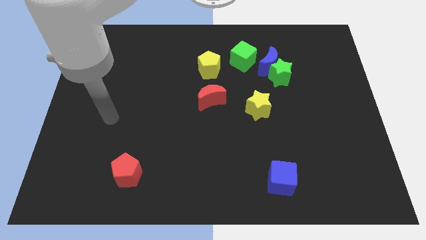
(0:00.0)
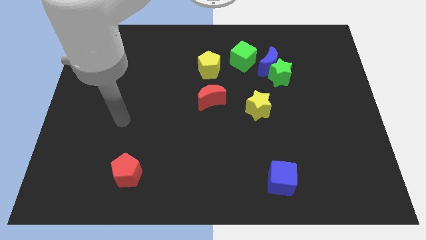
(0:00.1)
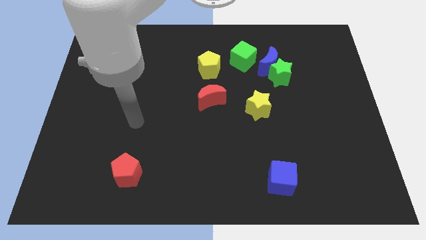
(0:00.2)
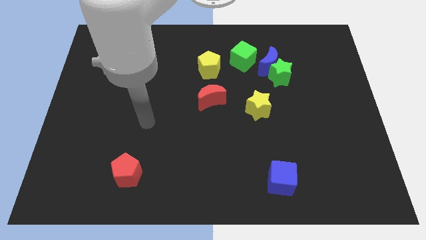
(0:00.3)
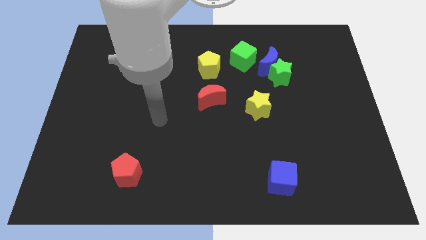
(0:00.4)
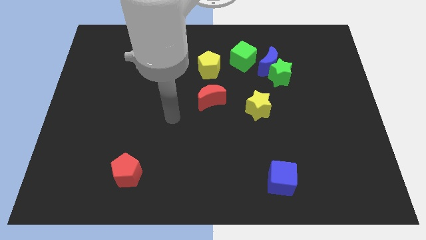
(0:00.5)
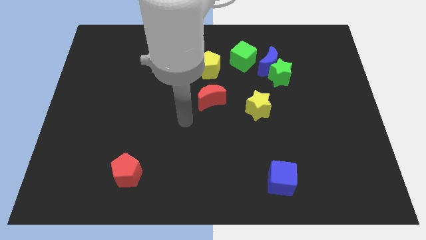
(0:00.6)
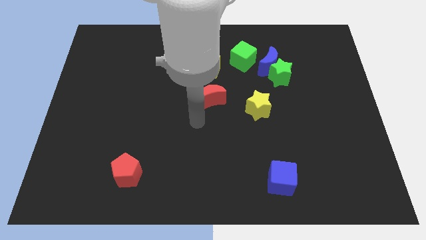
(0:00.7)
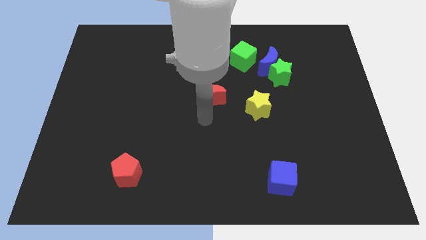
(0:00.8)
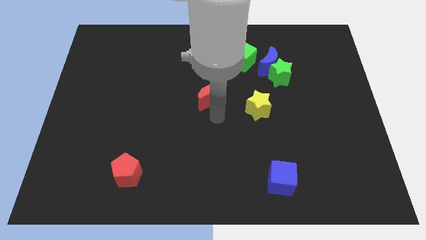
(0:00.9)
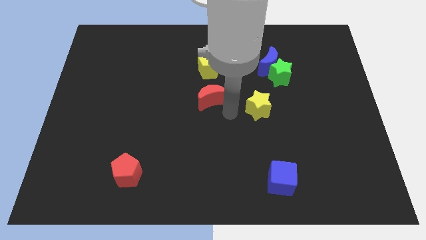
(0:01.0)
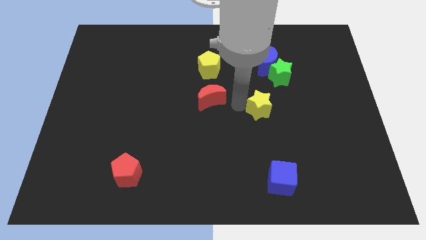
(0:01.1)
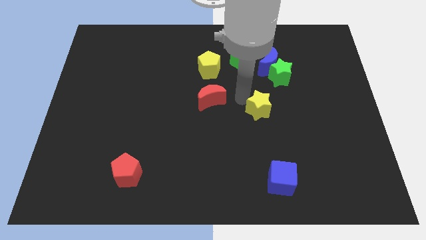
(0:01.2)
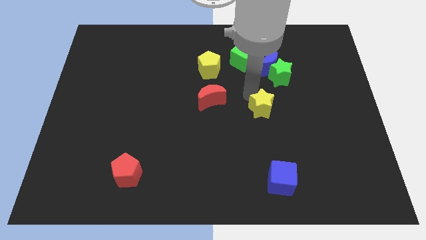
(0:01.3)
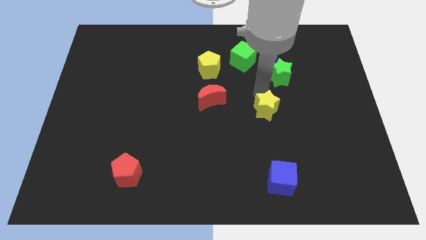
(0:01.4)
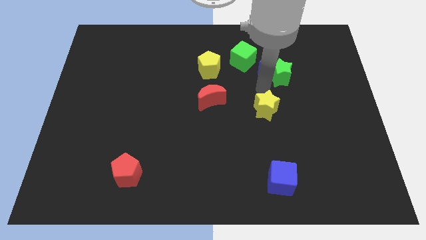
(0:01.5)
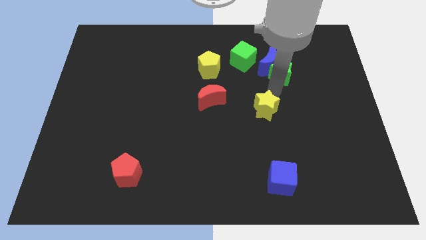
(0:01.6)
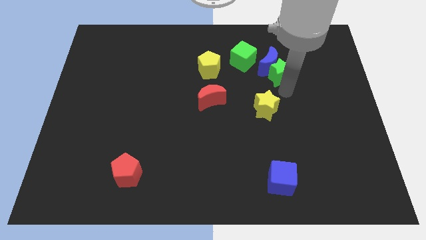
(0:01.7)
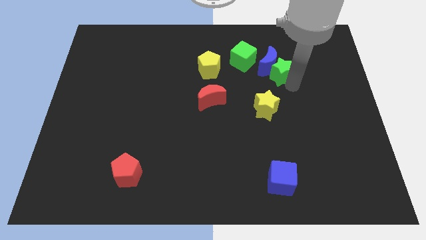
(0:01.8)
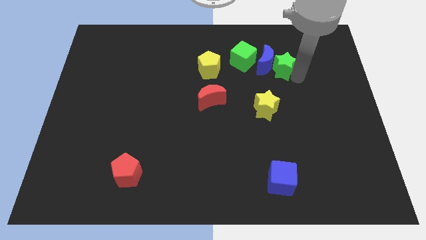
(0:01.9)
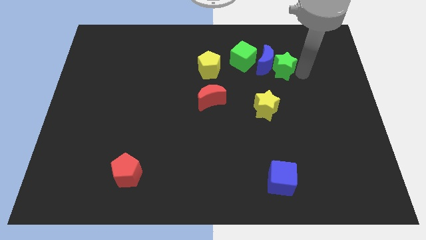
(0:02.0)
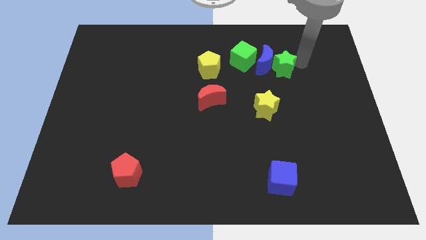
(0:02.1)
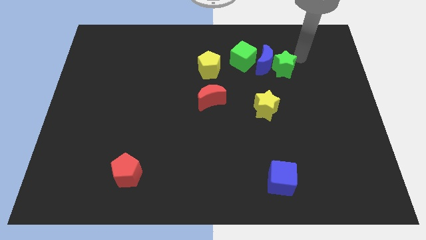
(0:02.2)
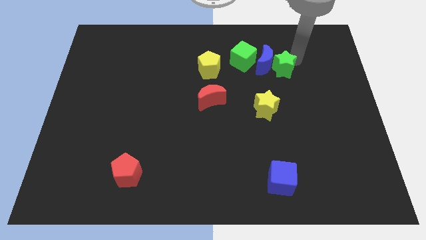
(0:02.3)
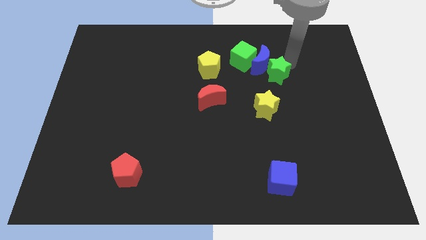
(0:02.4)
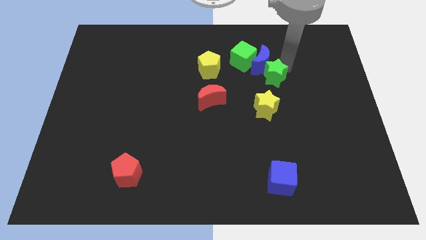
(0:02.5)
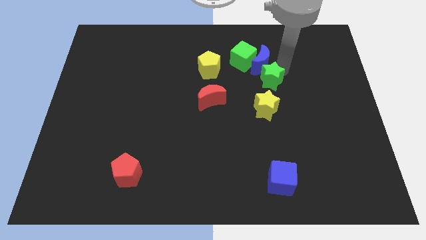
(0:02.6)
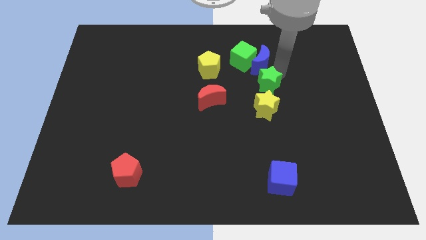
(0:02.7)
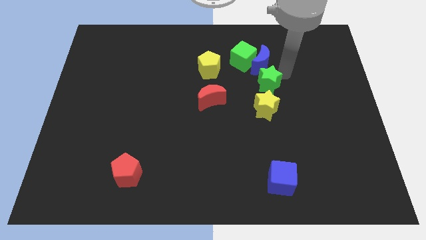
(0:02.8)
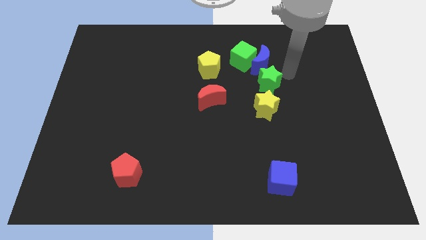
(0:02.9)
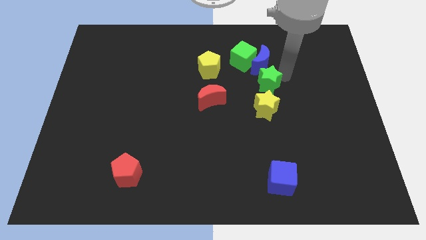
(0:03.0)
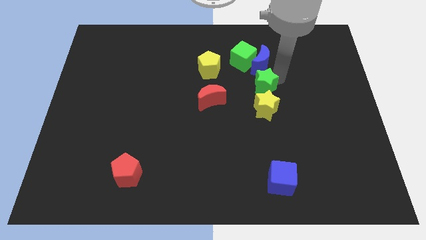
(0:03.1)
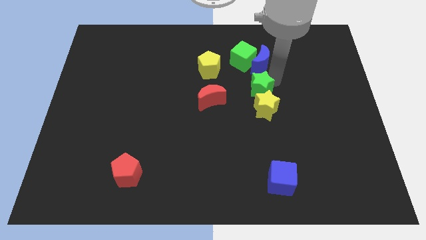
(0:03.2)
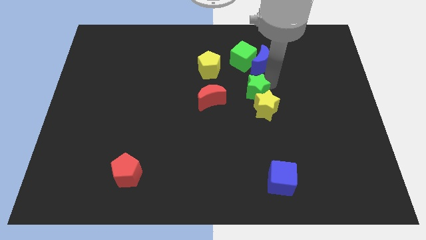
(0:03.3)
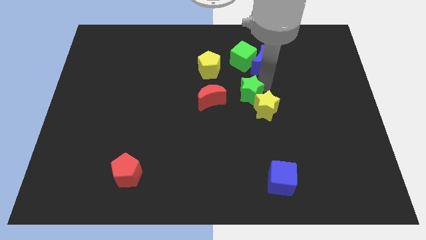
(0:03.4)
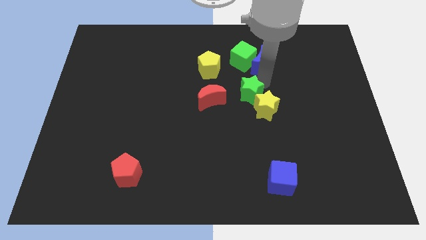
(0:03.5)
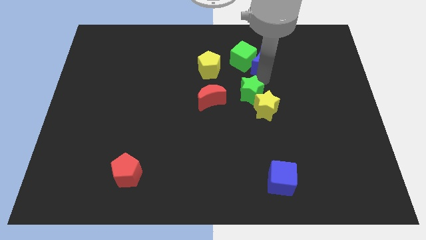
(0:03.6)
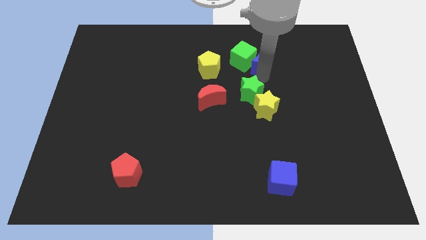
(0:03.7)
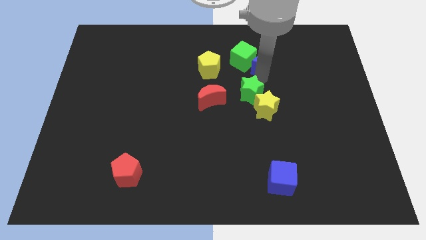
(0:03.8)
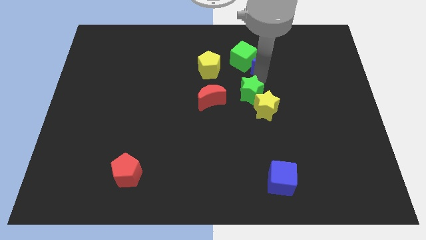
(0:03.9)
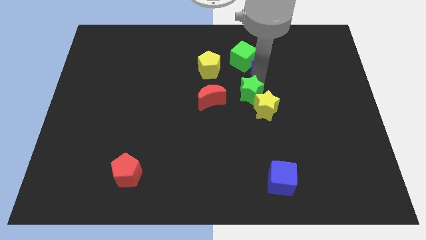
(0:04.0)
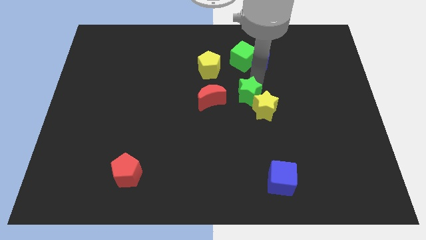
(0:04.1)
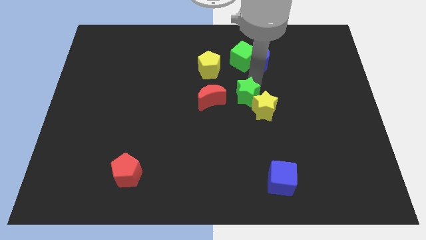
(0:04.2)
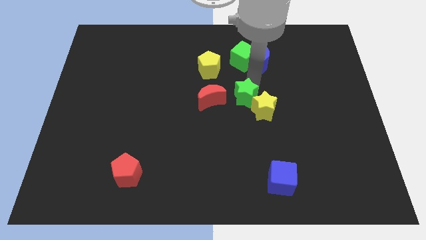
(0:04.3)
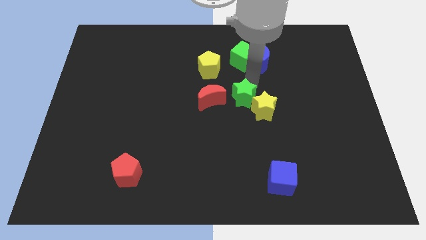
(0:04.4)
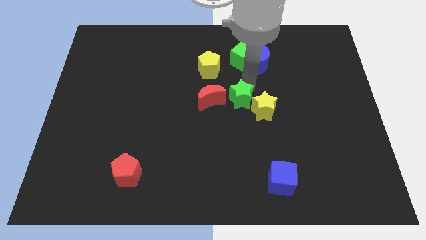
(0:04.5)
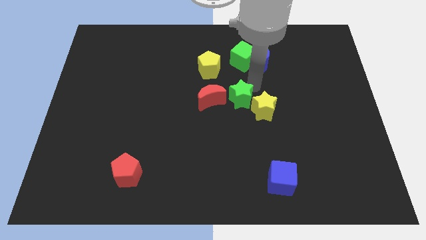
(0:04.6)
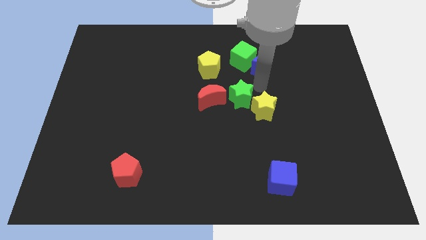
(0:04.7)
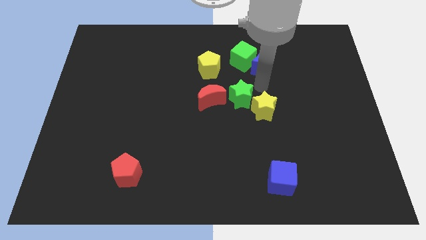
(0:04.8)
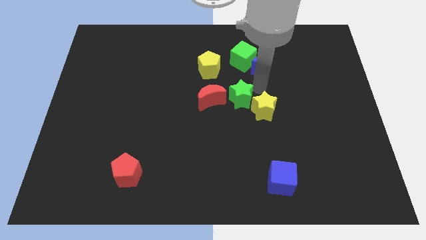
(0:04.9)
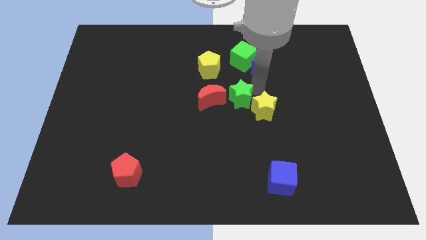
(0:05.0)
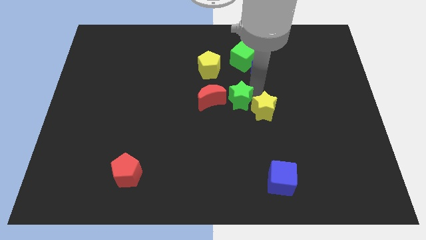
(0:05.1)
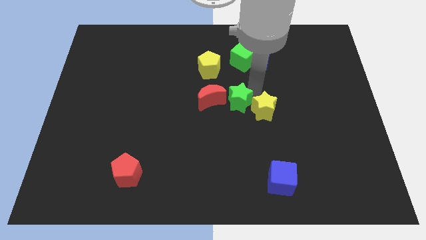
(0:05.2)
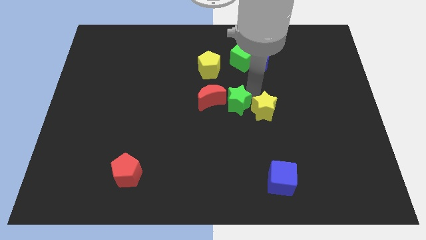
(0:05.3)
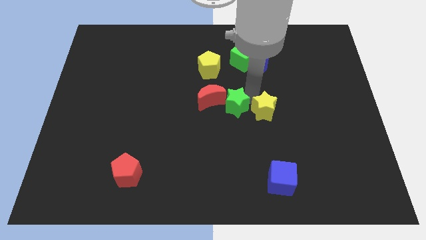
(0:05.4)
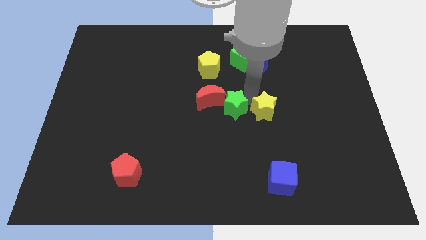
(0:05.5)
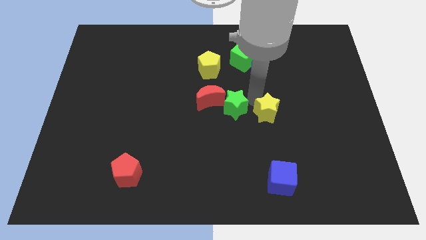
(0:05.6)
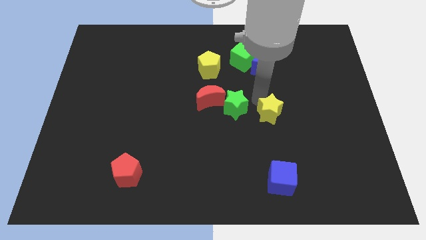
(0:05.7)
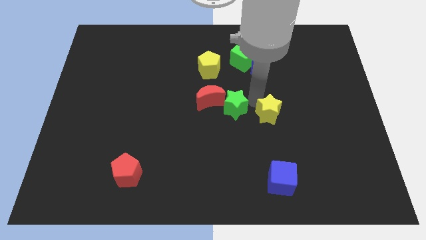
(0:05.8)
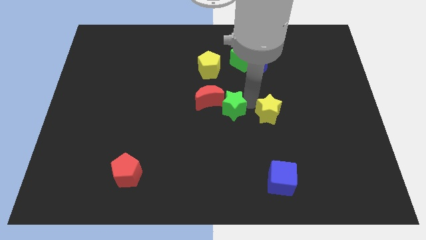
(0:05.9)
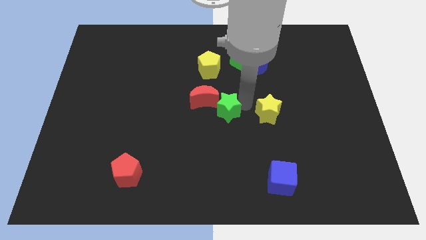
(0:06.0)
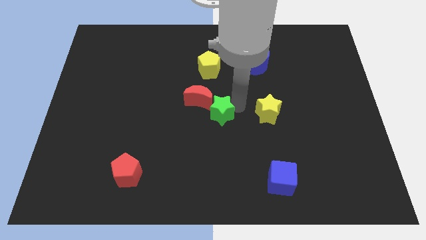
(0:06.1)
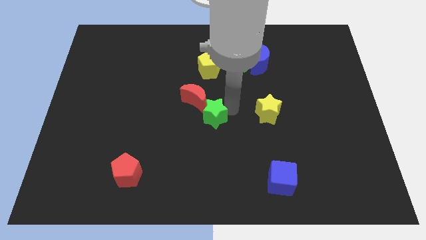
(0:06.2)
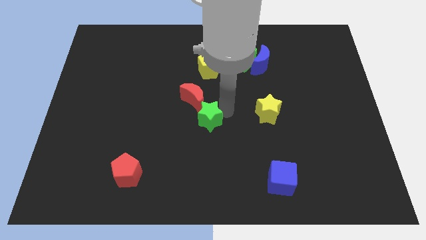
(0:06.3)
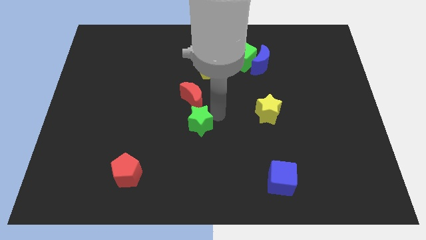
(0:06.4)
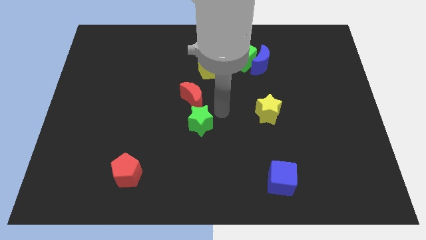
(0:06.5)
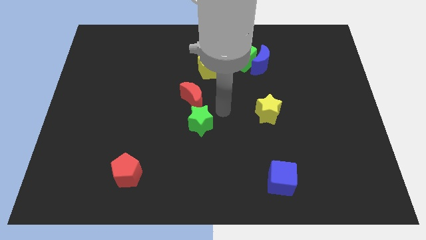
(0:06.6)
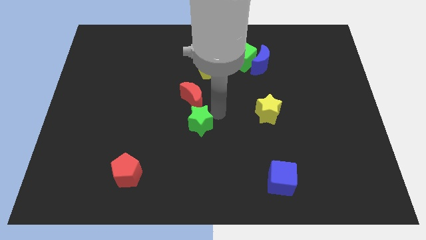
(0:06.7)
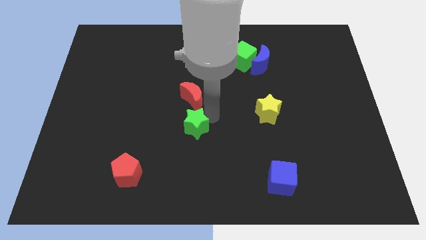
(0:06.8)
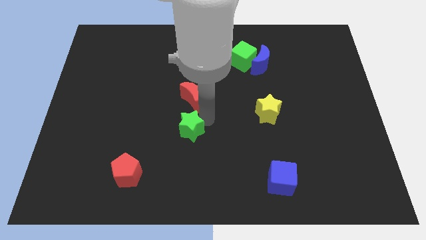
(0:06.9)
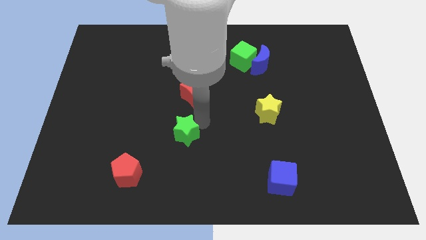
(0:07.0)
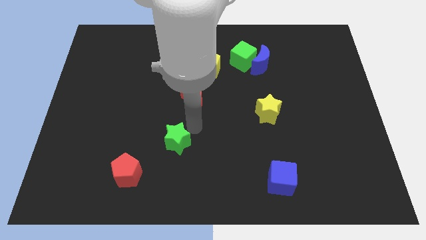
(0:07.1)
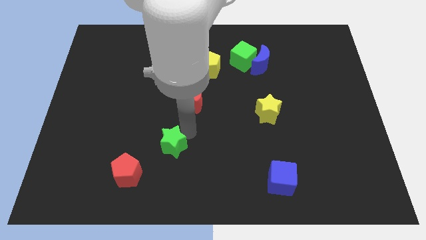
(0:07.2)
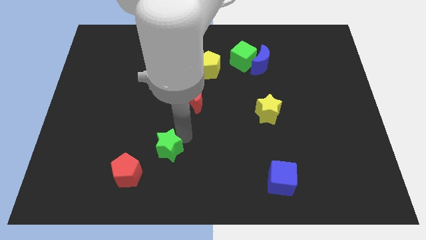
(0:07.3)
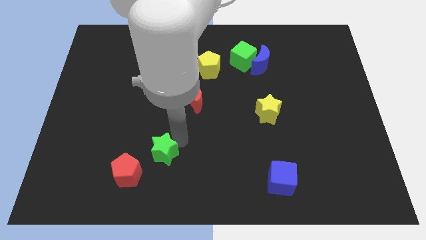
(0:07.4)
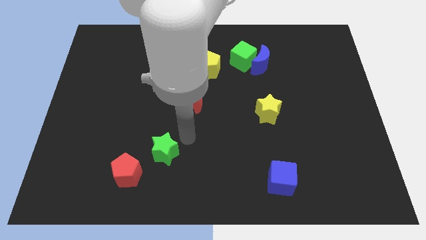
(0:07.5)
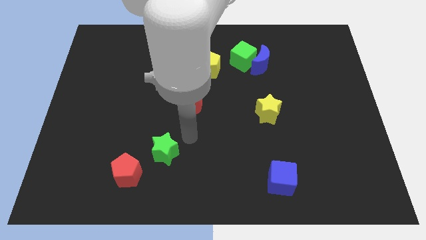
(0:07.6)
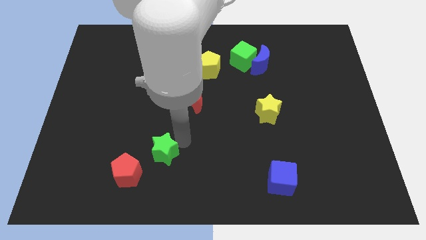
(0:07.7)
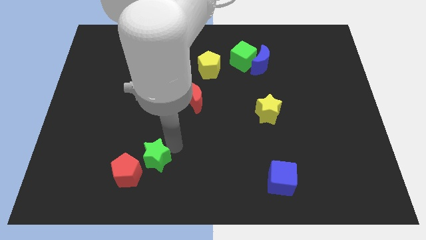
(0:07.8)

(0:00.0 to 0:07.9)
move the green star close to the red pentagon
